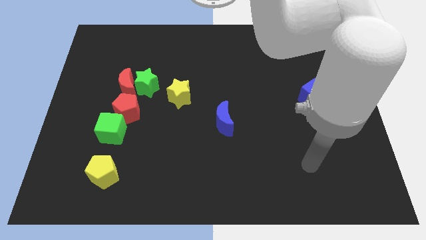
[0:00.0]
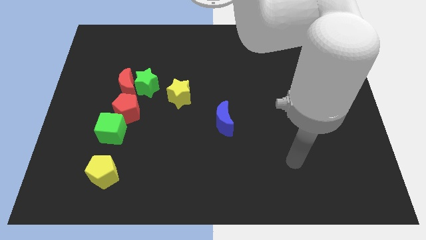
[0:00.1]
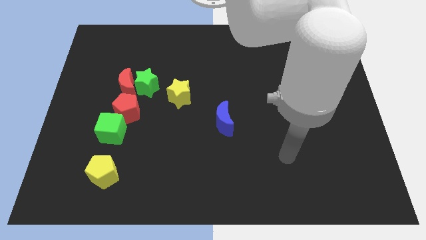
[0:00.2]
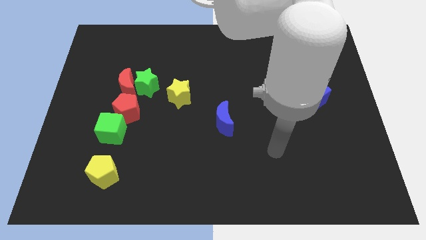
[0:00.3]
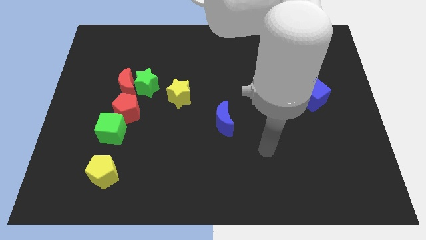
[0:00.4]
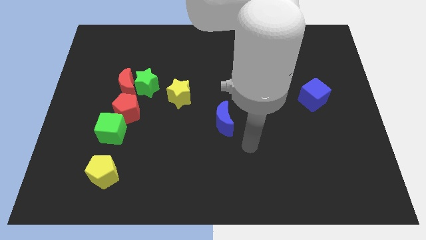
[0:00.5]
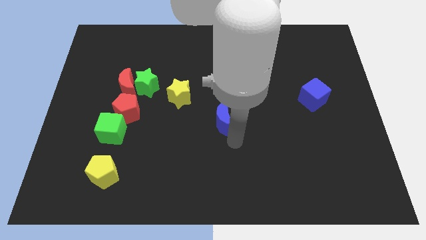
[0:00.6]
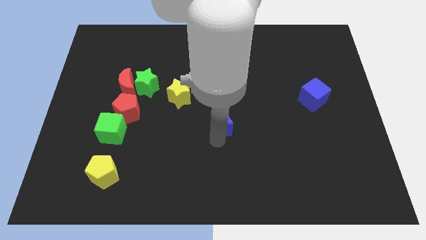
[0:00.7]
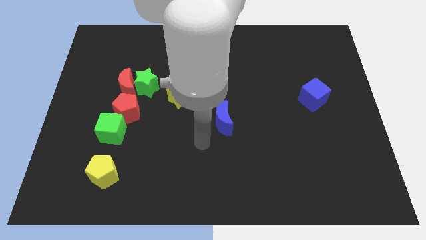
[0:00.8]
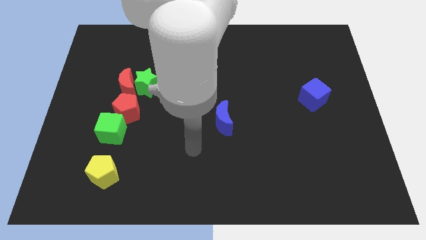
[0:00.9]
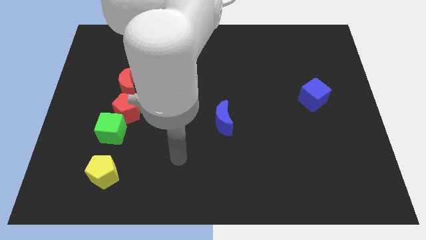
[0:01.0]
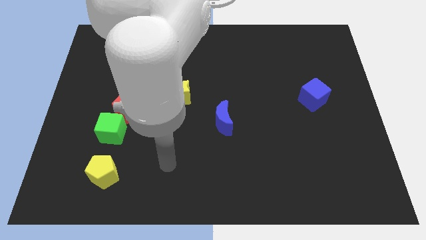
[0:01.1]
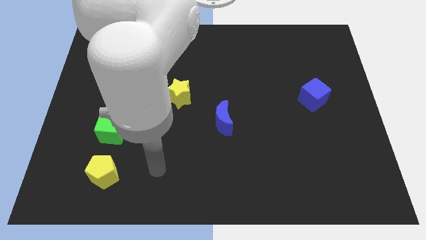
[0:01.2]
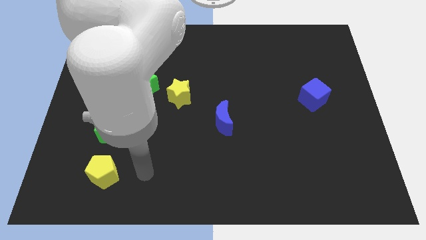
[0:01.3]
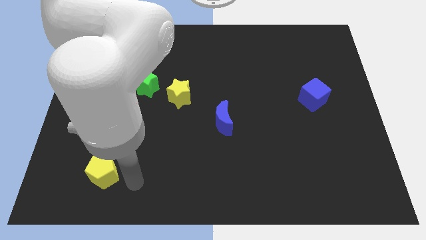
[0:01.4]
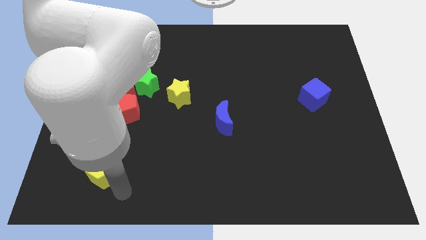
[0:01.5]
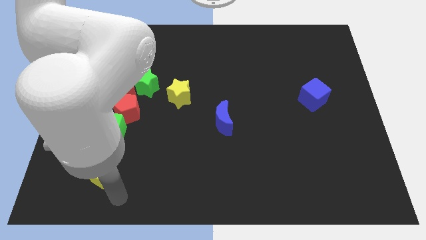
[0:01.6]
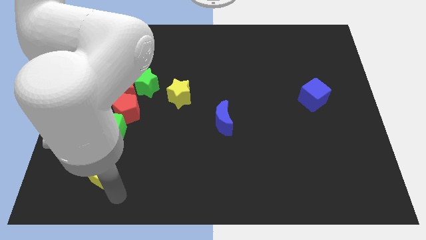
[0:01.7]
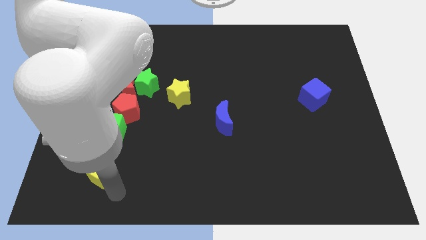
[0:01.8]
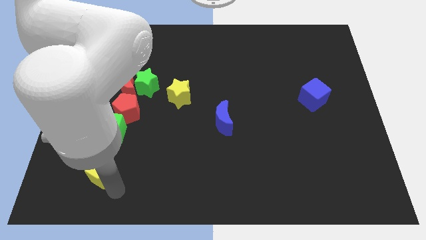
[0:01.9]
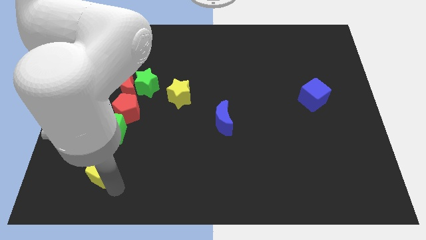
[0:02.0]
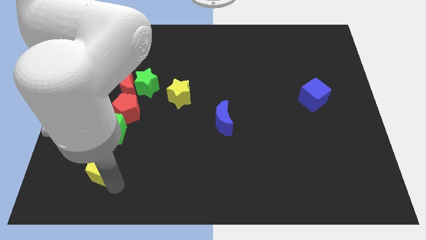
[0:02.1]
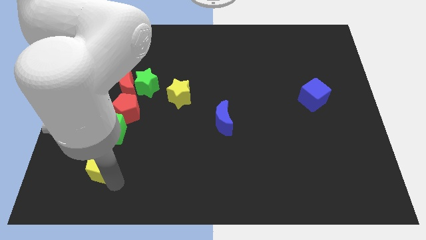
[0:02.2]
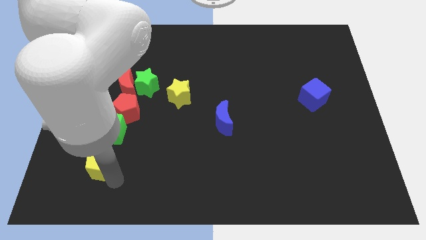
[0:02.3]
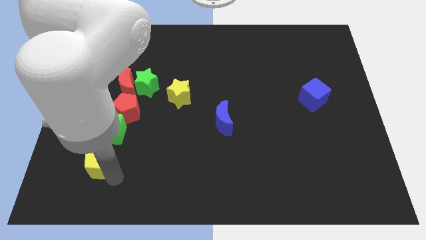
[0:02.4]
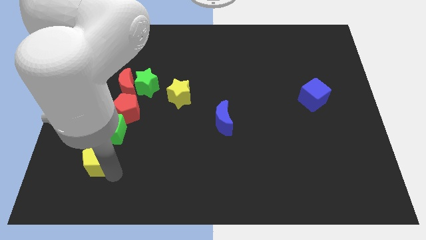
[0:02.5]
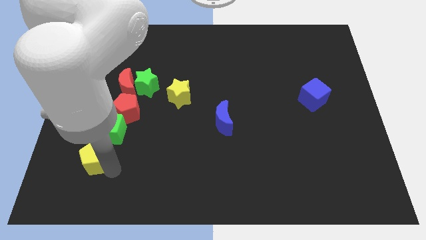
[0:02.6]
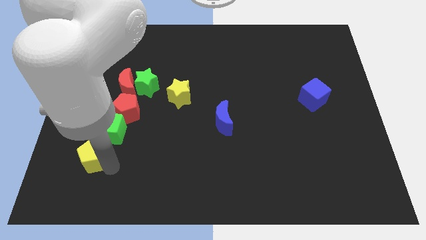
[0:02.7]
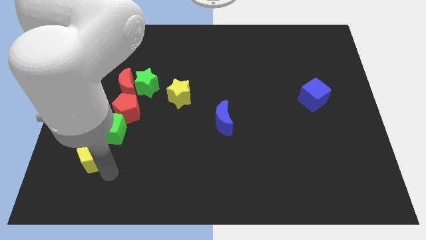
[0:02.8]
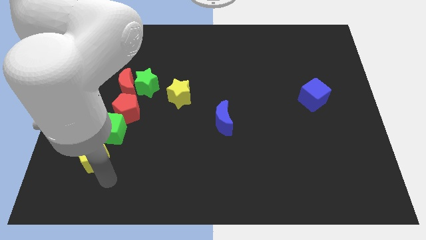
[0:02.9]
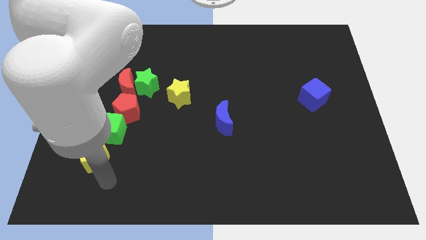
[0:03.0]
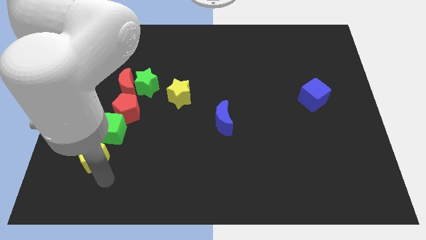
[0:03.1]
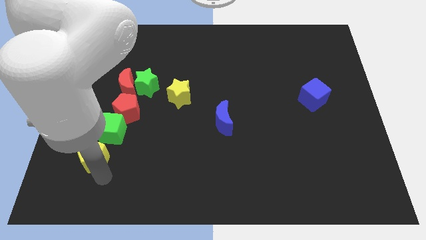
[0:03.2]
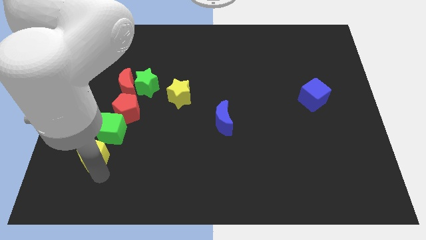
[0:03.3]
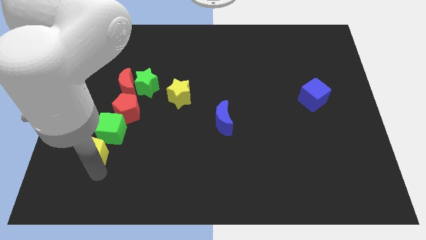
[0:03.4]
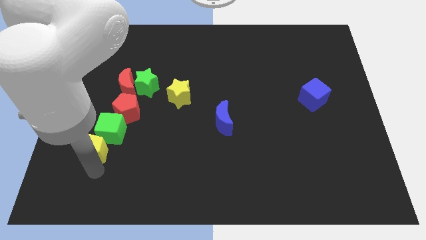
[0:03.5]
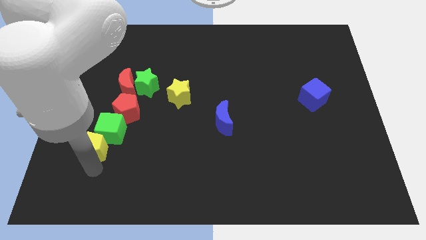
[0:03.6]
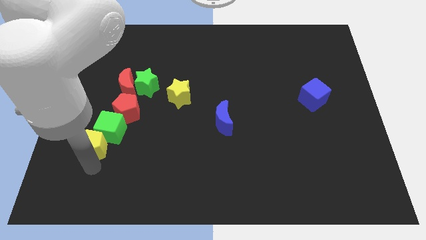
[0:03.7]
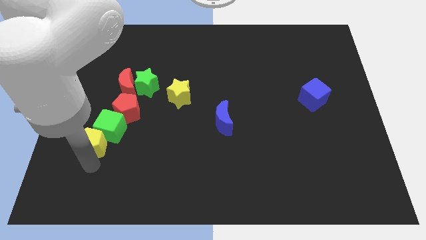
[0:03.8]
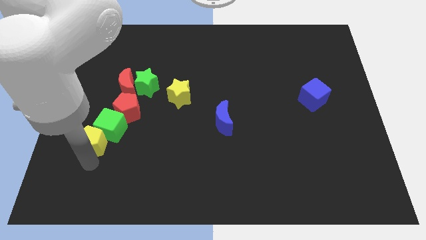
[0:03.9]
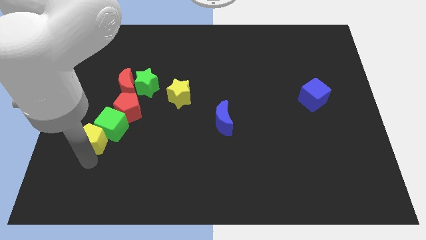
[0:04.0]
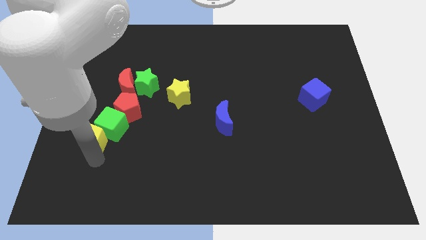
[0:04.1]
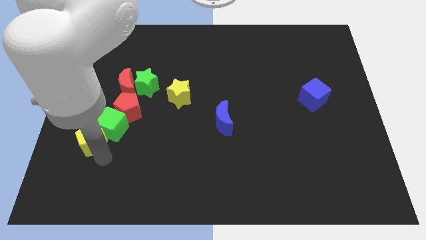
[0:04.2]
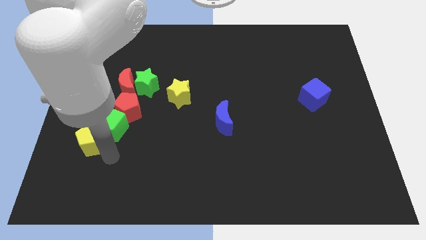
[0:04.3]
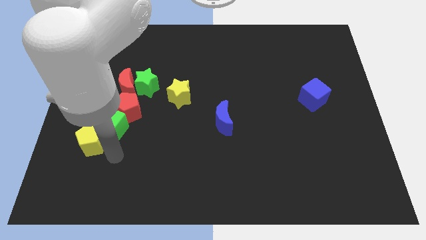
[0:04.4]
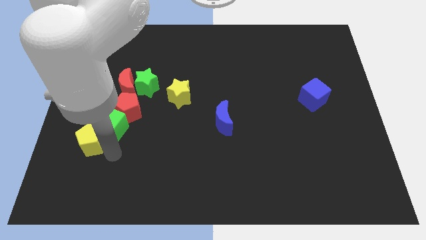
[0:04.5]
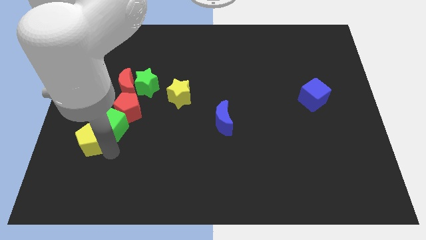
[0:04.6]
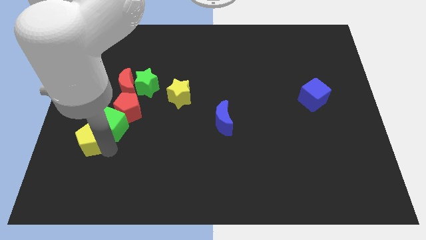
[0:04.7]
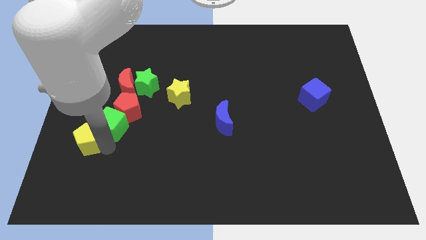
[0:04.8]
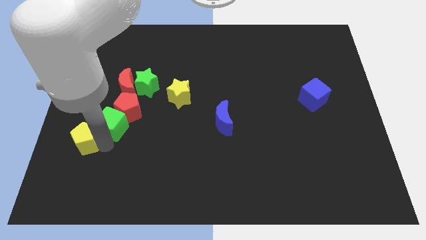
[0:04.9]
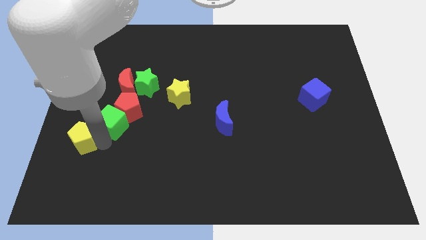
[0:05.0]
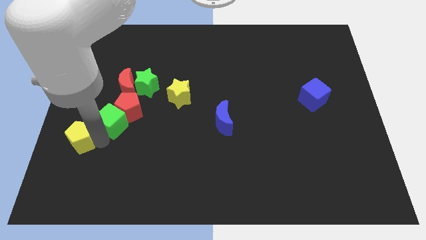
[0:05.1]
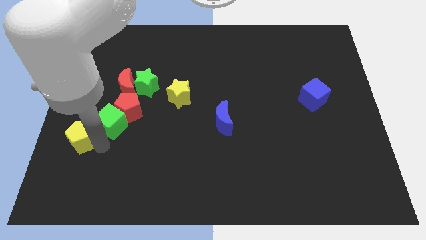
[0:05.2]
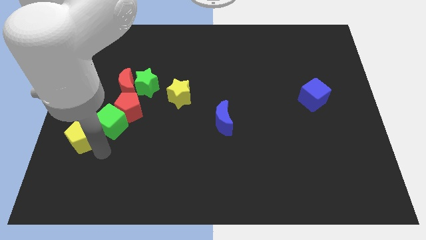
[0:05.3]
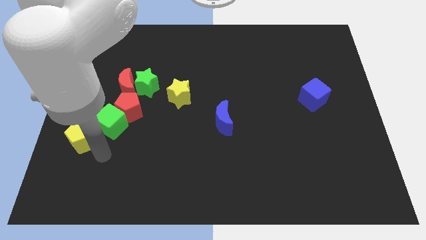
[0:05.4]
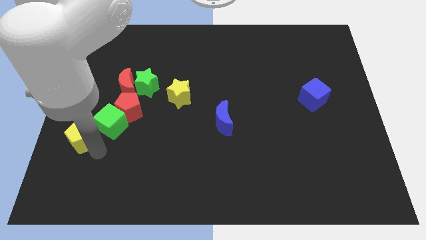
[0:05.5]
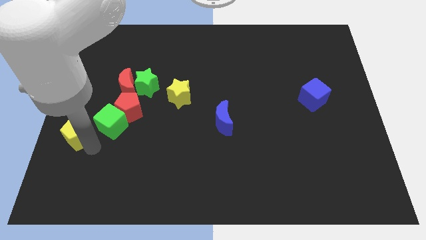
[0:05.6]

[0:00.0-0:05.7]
slide the yellow pentagon to the left side of the board
